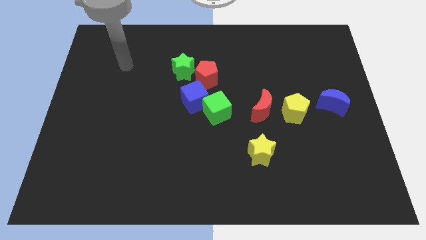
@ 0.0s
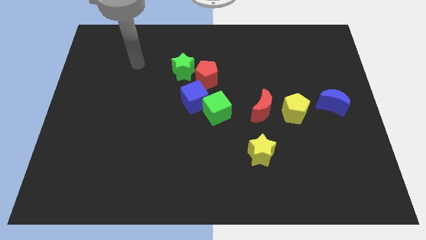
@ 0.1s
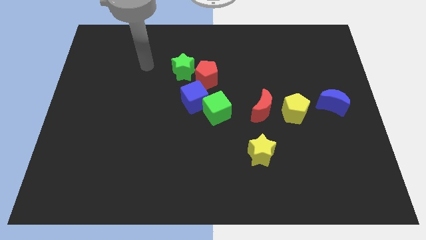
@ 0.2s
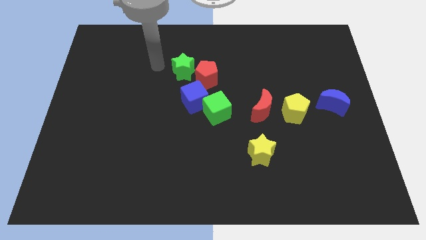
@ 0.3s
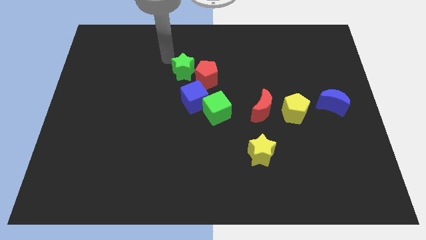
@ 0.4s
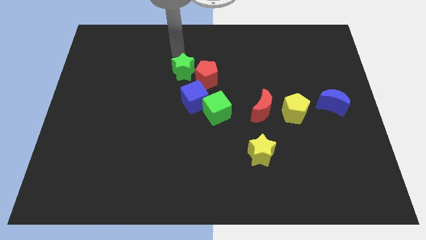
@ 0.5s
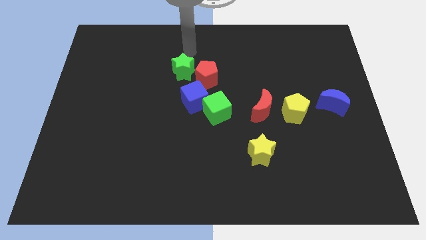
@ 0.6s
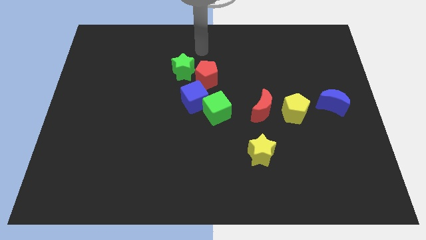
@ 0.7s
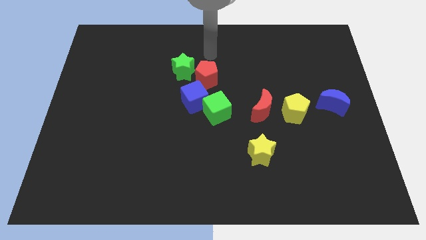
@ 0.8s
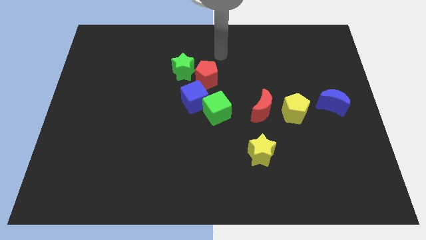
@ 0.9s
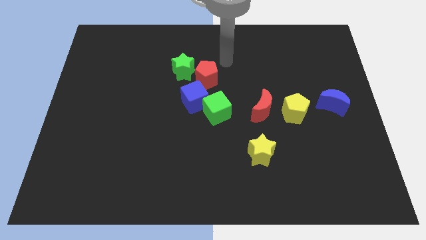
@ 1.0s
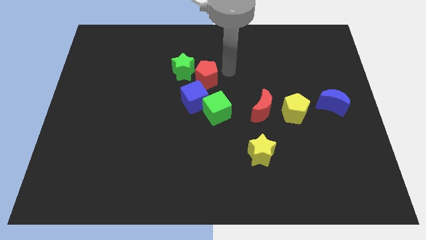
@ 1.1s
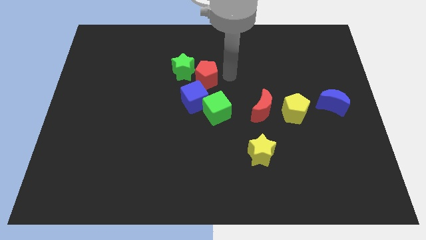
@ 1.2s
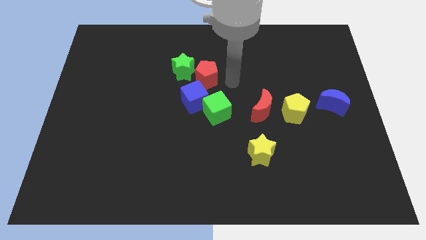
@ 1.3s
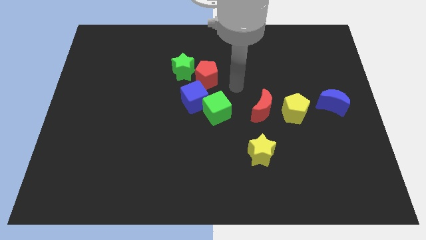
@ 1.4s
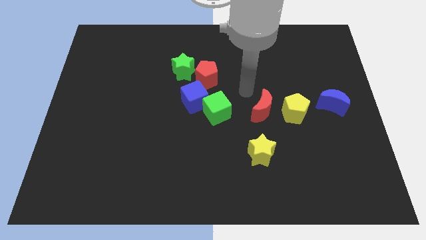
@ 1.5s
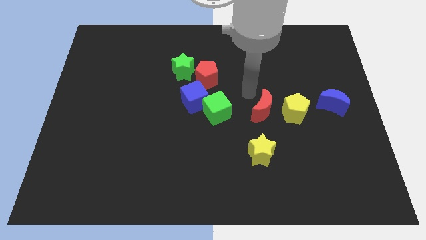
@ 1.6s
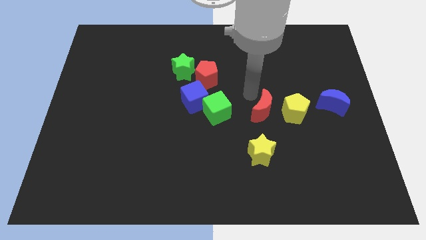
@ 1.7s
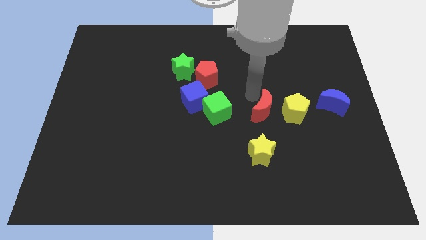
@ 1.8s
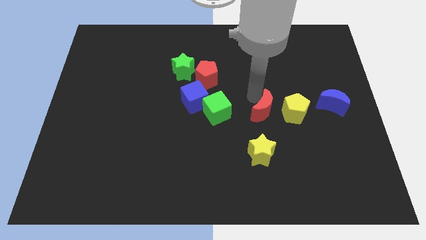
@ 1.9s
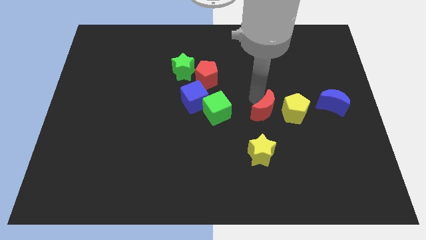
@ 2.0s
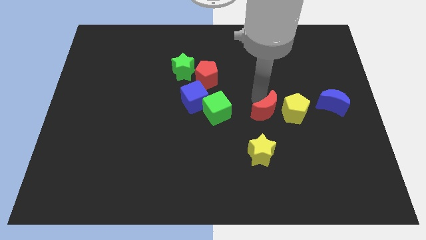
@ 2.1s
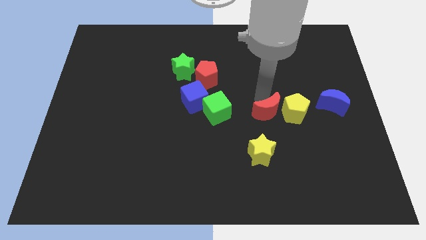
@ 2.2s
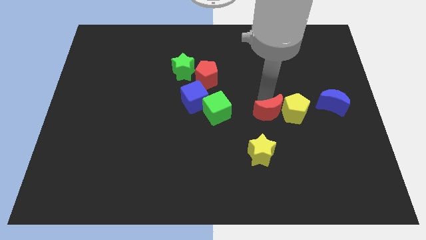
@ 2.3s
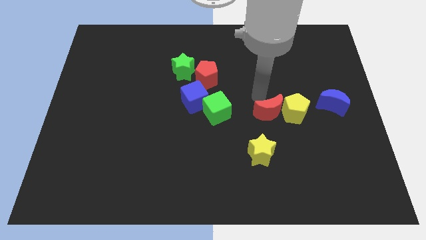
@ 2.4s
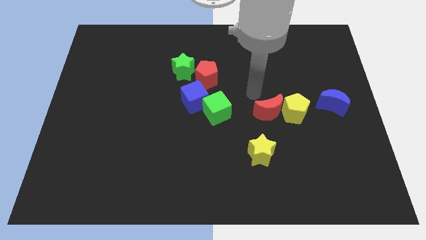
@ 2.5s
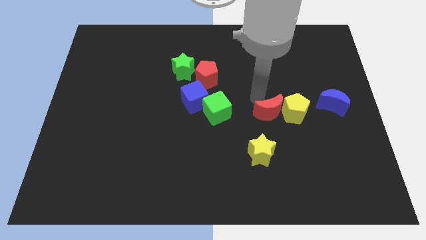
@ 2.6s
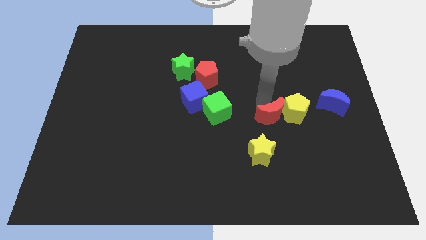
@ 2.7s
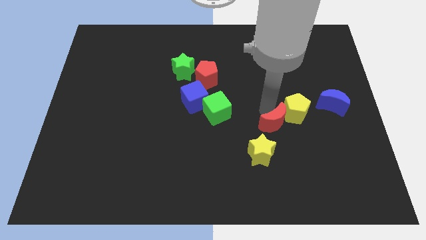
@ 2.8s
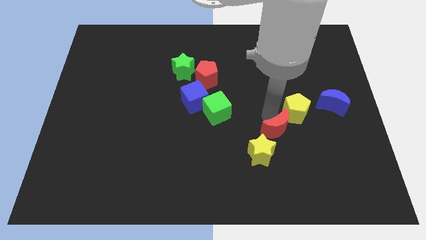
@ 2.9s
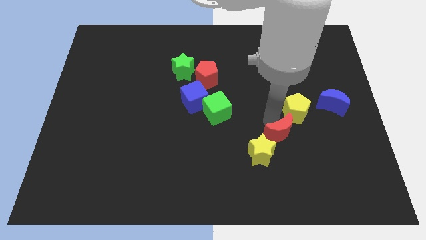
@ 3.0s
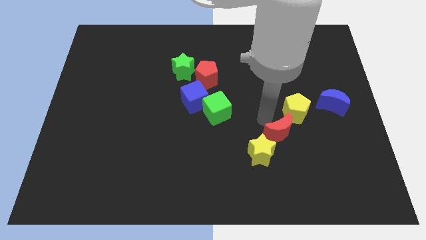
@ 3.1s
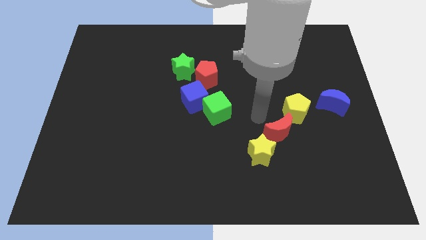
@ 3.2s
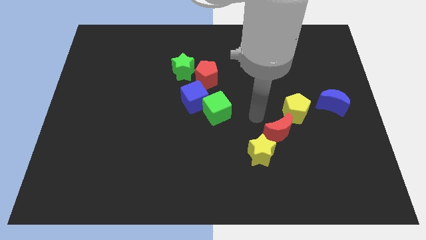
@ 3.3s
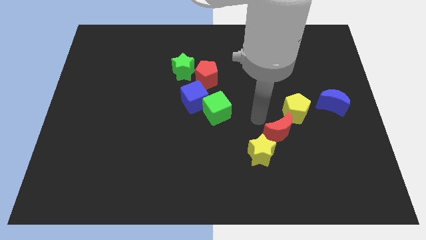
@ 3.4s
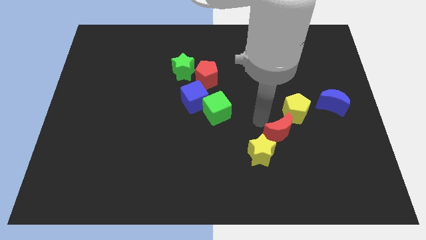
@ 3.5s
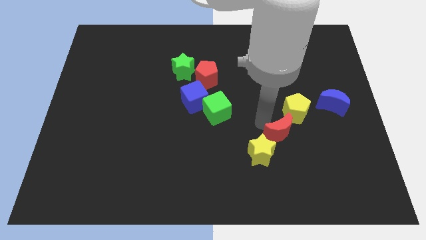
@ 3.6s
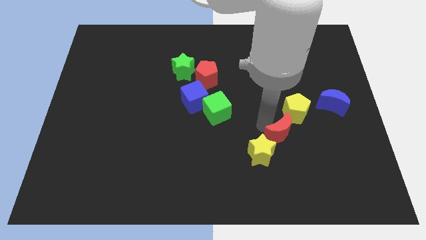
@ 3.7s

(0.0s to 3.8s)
slightly slide the red moon downwards and to the right

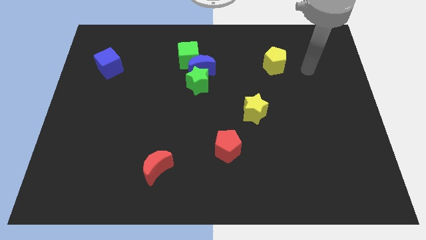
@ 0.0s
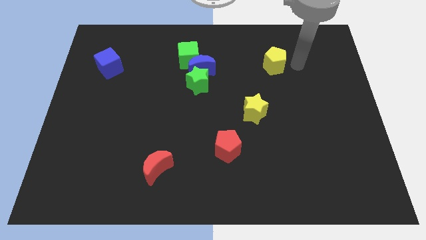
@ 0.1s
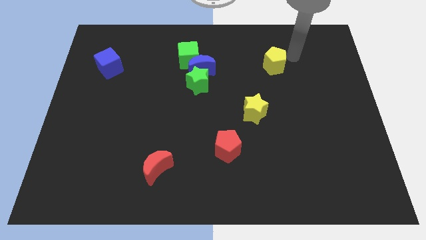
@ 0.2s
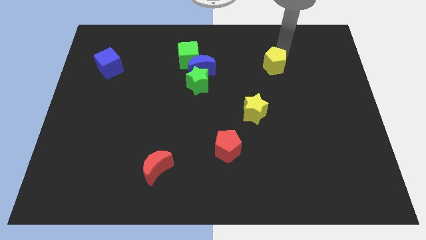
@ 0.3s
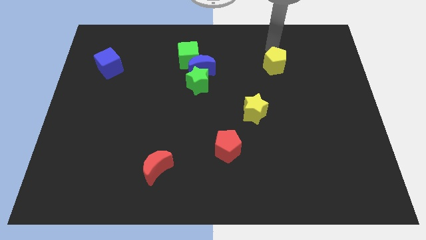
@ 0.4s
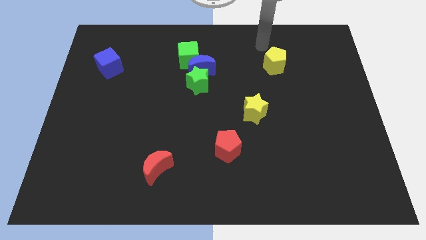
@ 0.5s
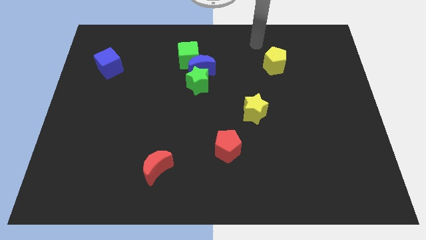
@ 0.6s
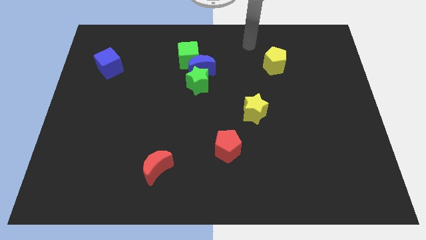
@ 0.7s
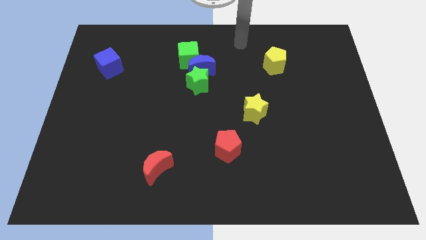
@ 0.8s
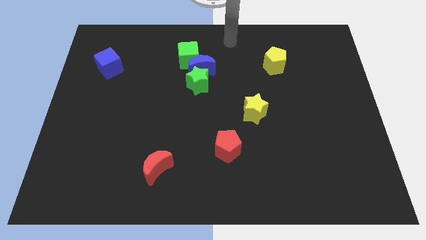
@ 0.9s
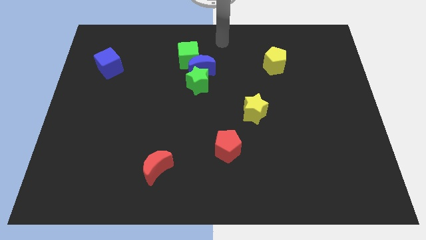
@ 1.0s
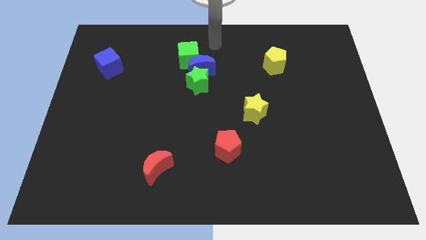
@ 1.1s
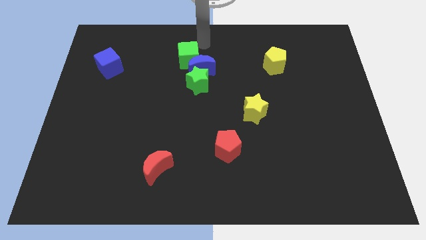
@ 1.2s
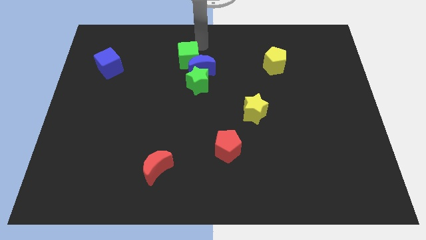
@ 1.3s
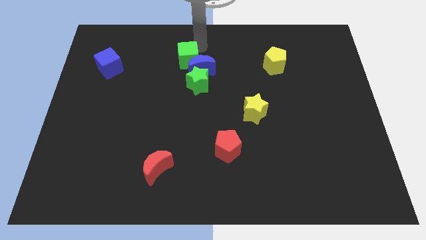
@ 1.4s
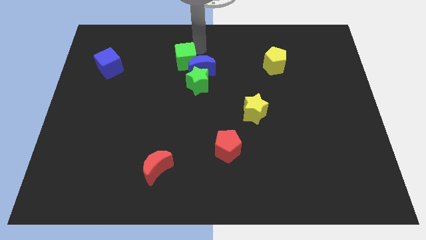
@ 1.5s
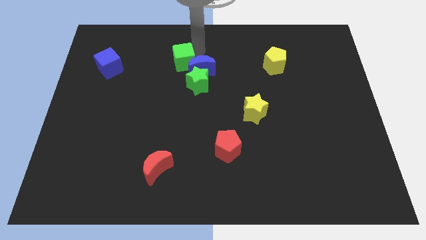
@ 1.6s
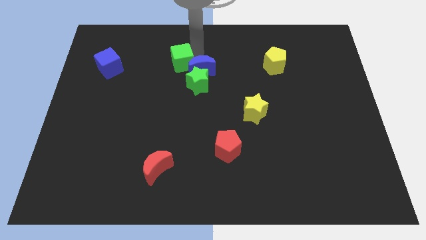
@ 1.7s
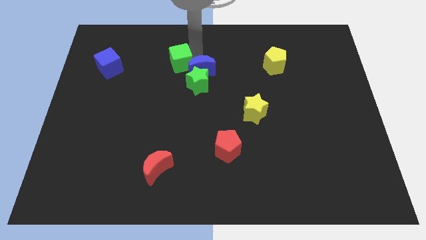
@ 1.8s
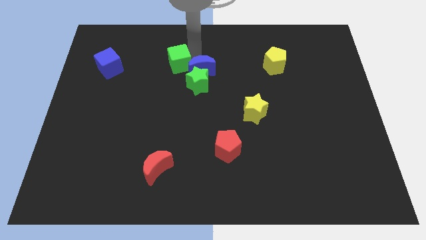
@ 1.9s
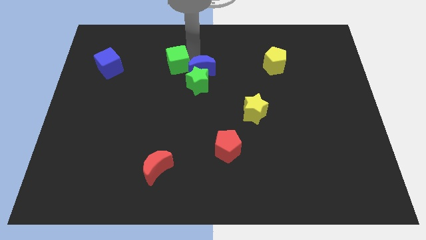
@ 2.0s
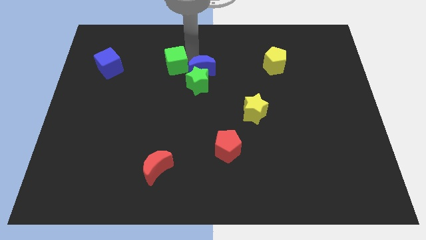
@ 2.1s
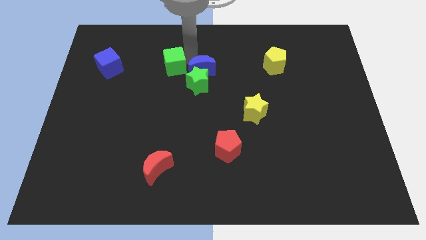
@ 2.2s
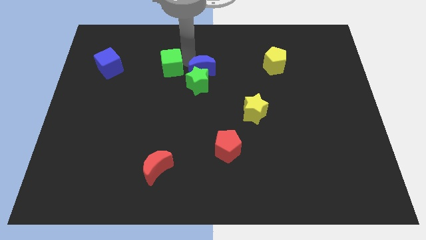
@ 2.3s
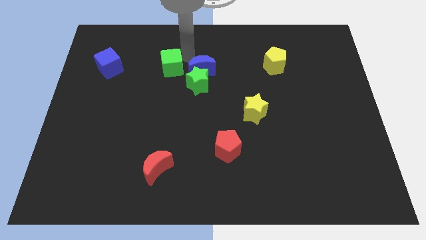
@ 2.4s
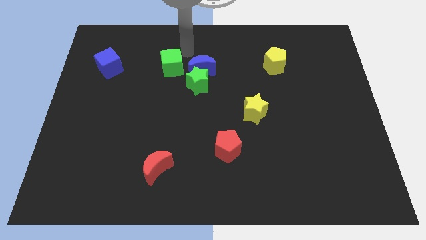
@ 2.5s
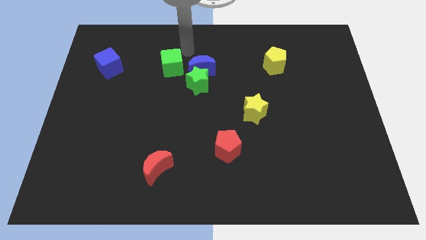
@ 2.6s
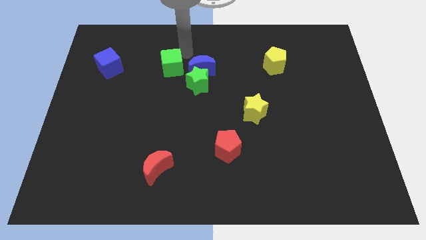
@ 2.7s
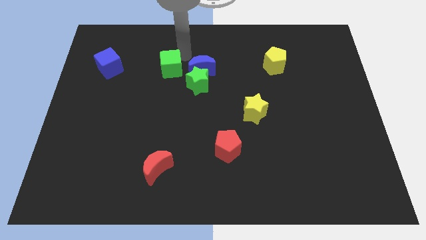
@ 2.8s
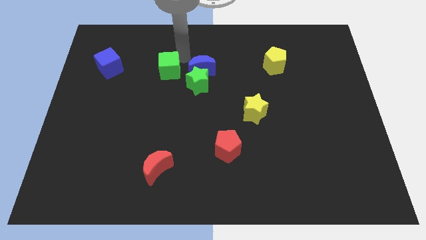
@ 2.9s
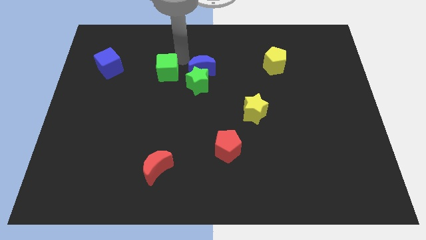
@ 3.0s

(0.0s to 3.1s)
move the green cube down and to the left diagonally somewhat

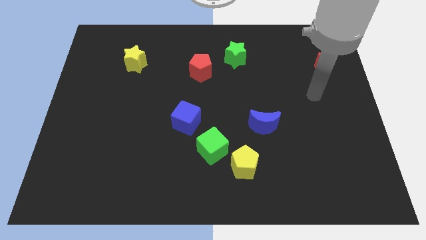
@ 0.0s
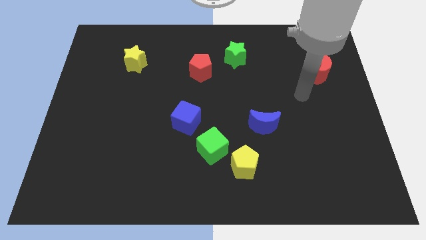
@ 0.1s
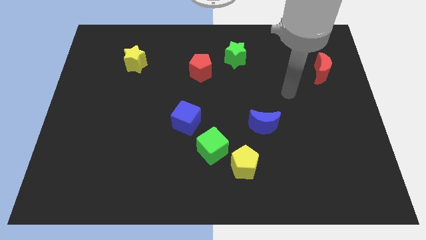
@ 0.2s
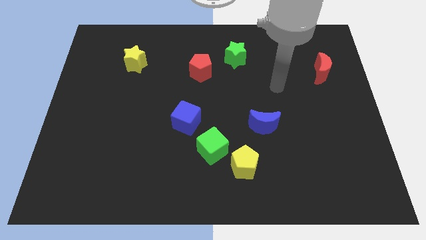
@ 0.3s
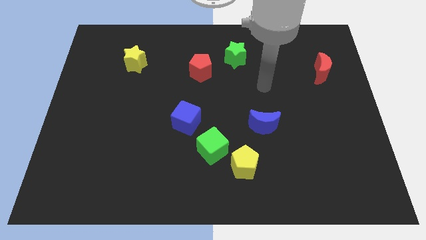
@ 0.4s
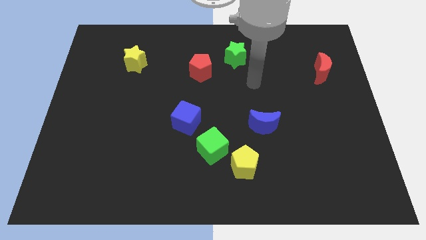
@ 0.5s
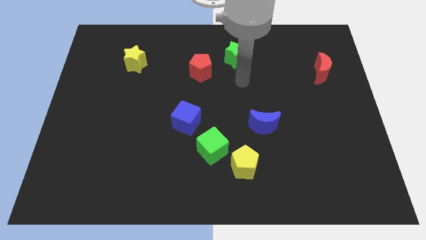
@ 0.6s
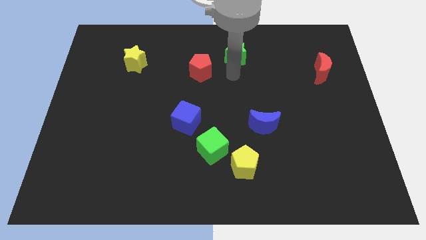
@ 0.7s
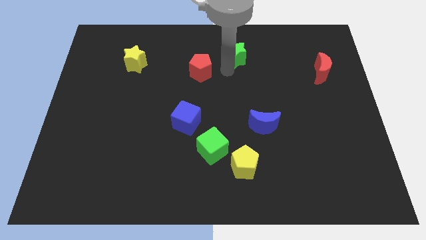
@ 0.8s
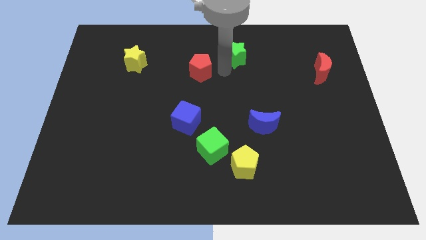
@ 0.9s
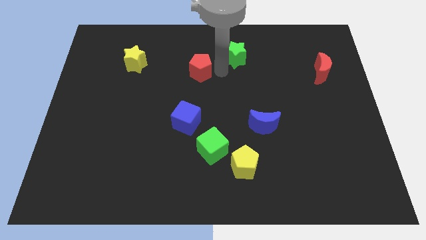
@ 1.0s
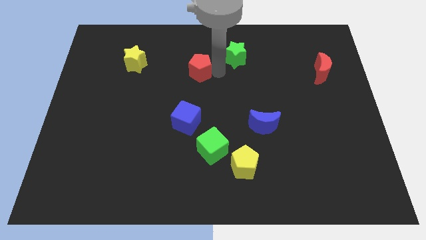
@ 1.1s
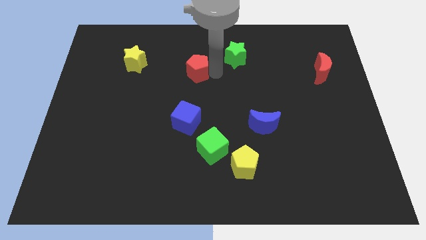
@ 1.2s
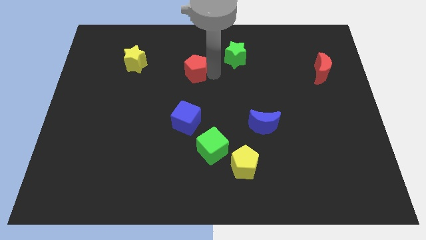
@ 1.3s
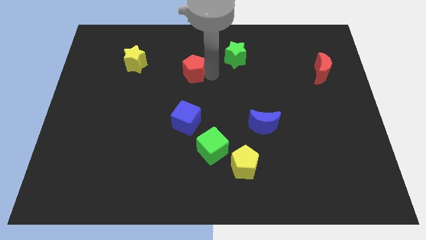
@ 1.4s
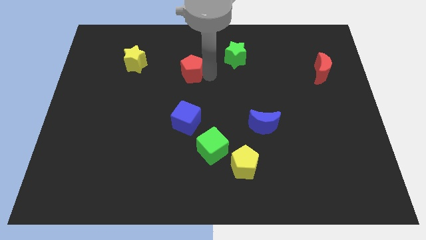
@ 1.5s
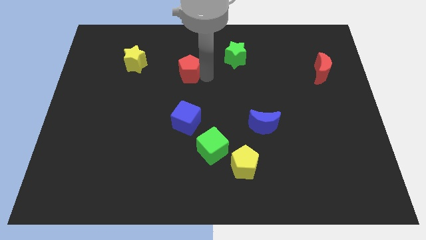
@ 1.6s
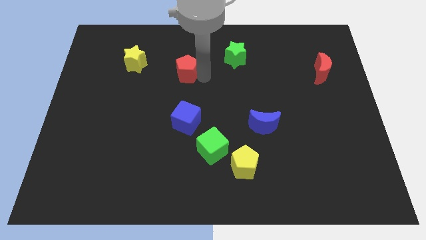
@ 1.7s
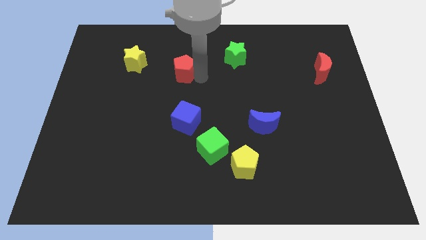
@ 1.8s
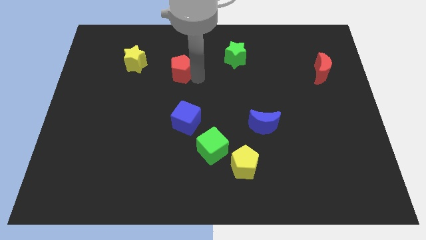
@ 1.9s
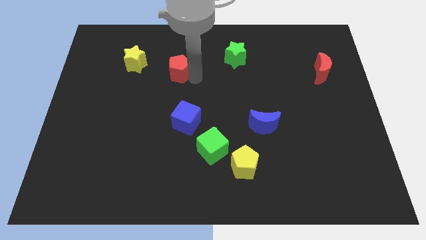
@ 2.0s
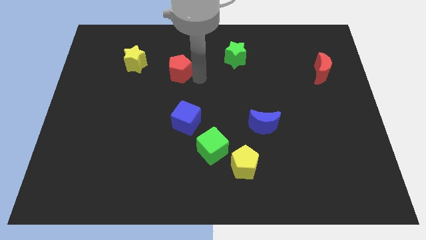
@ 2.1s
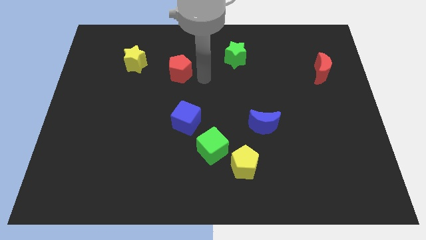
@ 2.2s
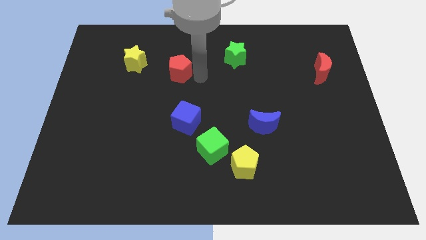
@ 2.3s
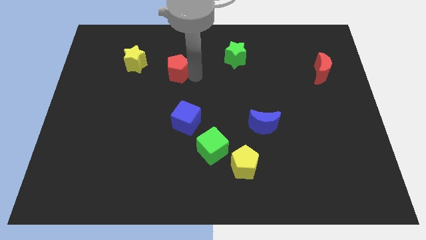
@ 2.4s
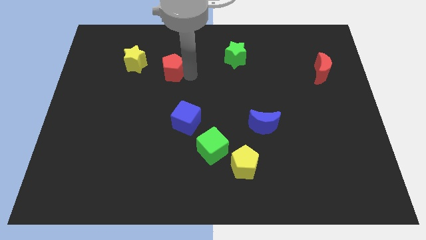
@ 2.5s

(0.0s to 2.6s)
slightly push the red pentagon left
